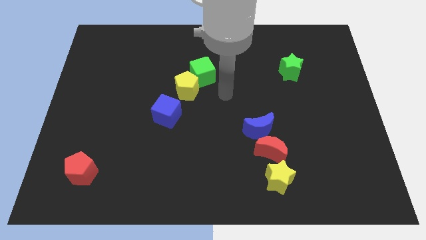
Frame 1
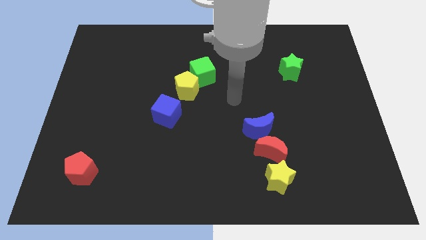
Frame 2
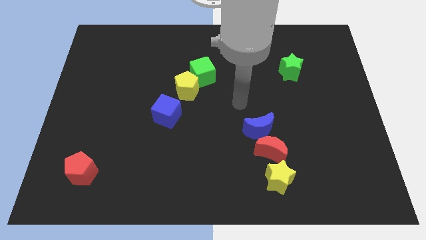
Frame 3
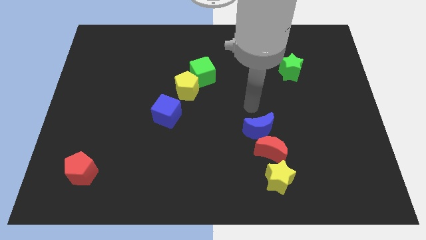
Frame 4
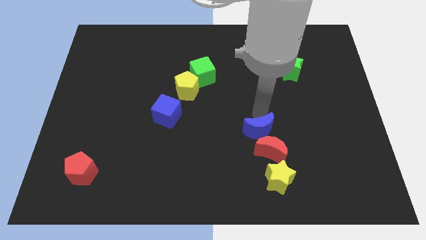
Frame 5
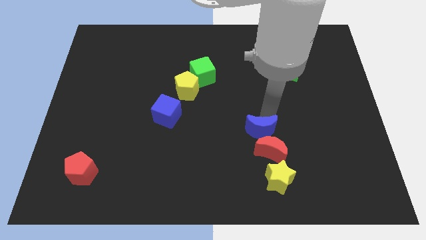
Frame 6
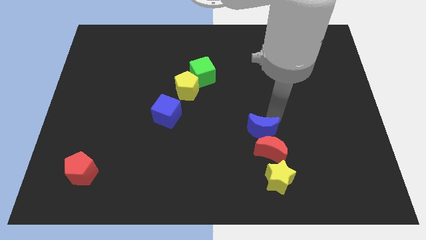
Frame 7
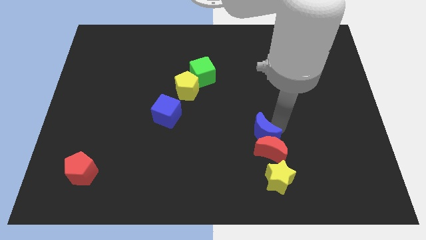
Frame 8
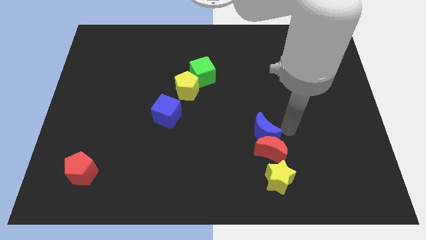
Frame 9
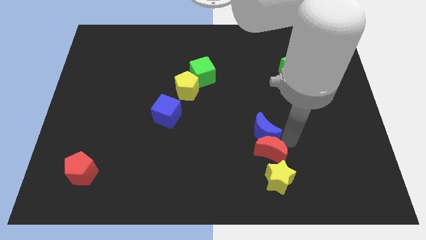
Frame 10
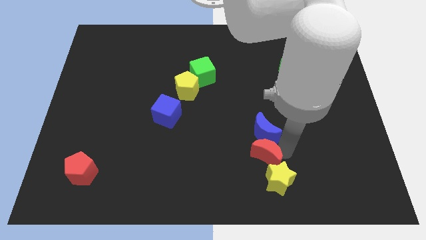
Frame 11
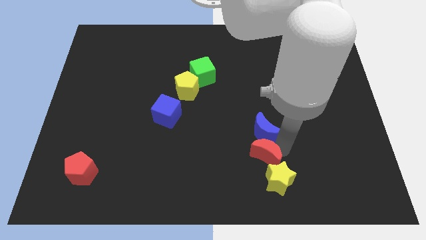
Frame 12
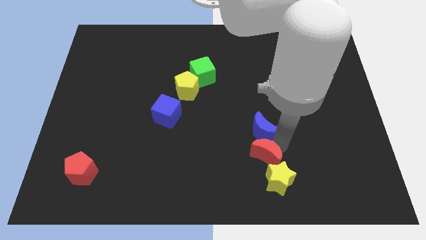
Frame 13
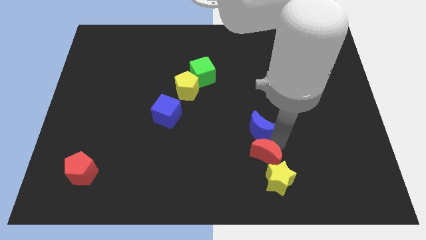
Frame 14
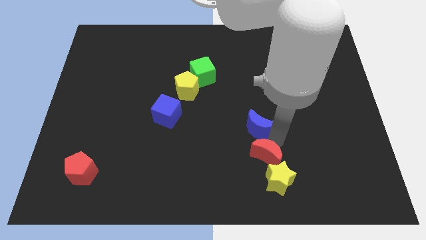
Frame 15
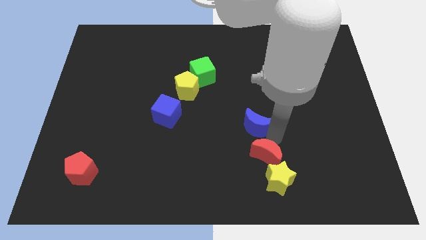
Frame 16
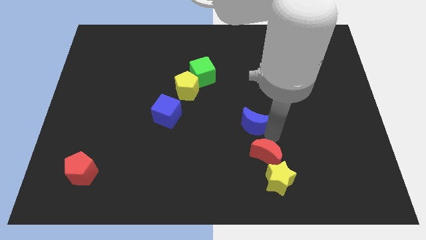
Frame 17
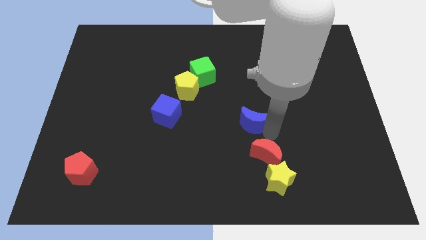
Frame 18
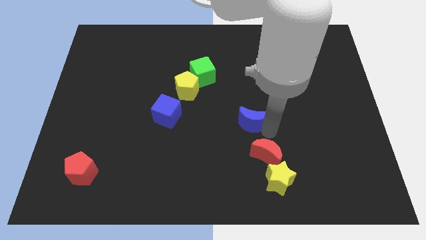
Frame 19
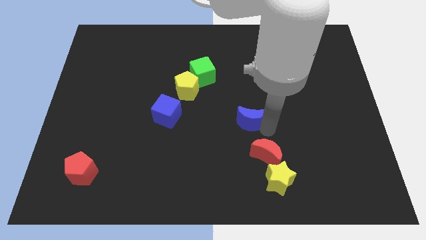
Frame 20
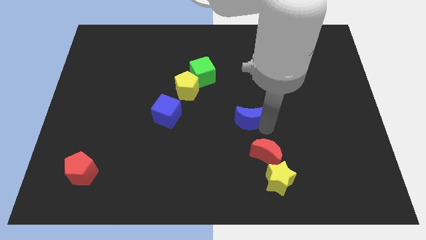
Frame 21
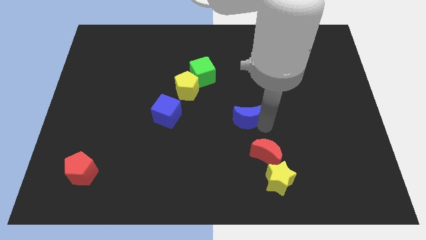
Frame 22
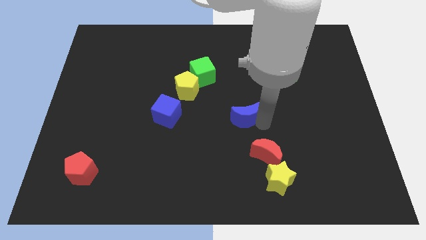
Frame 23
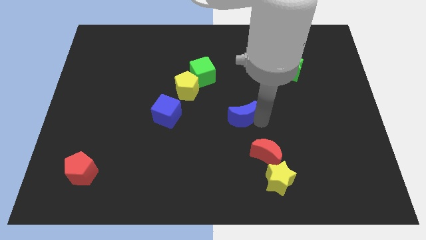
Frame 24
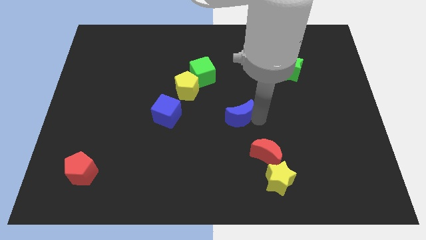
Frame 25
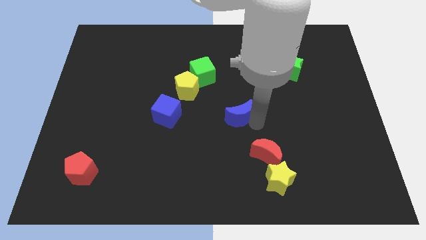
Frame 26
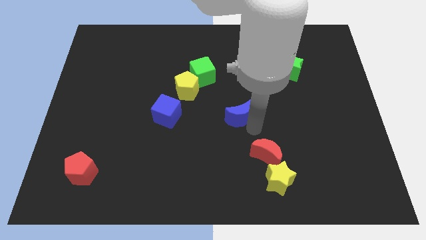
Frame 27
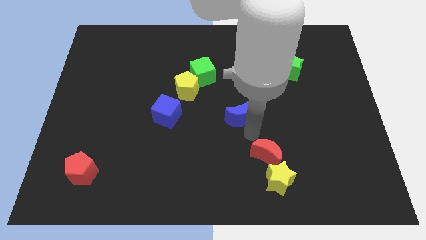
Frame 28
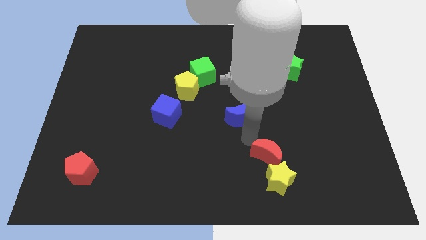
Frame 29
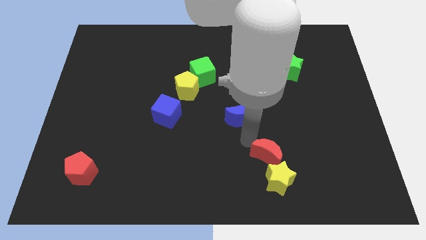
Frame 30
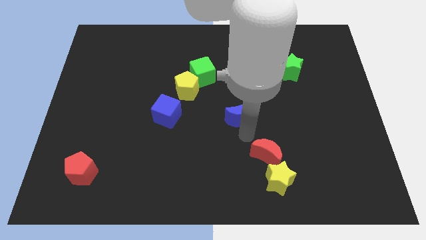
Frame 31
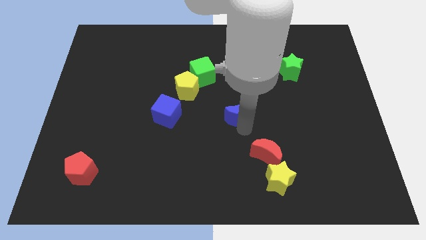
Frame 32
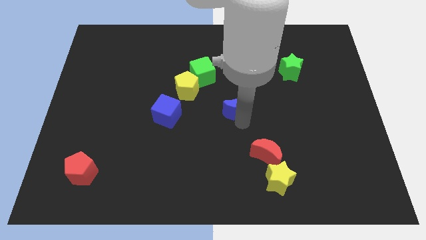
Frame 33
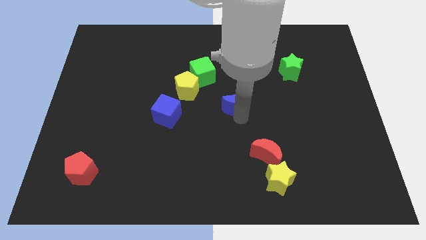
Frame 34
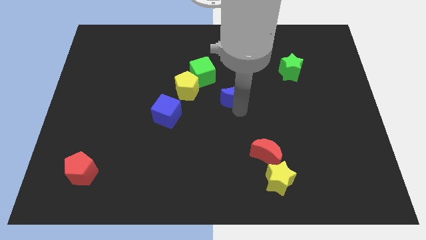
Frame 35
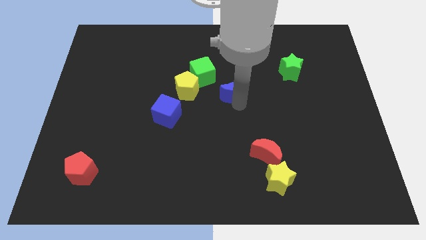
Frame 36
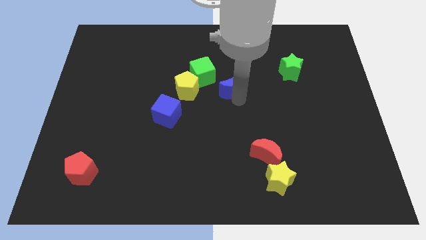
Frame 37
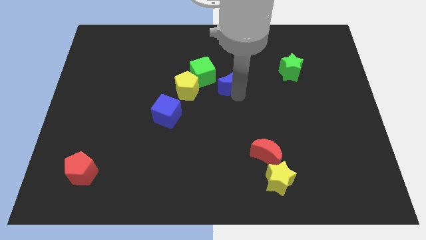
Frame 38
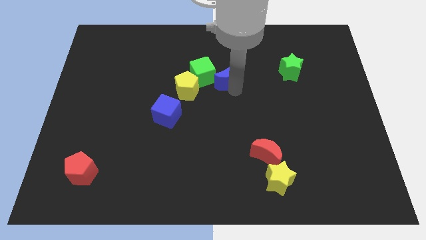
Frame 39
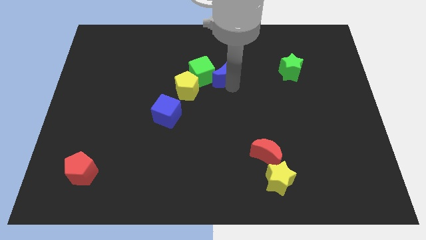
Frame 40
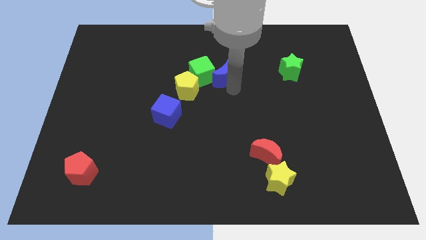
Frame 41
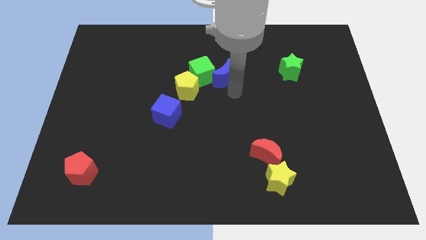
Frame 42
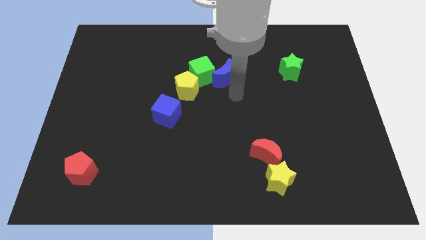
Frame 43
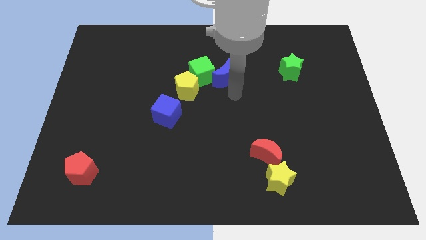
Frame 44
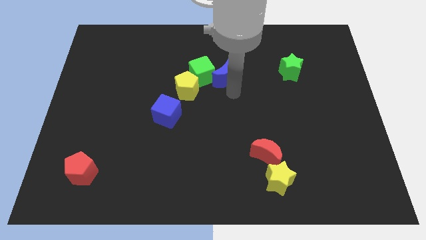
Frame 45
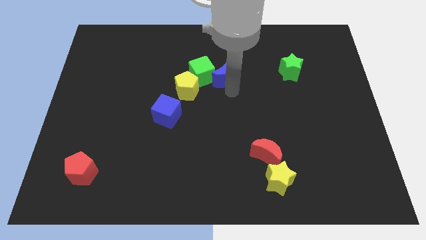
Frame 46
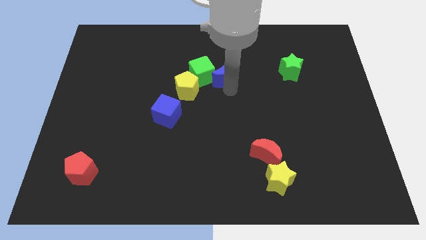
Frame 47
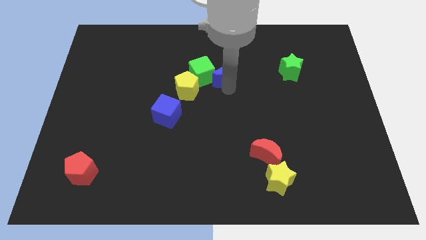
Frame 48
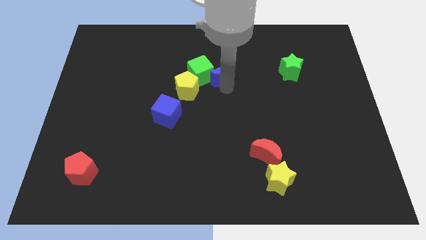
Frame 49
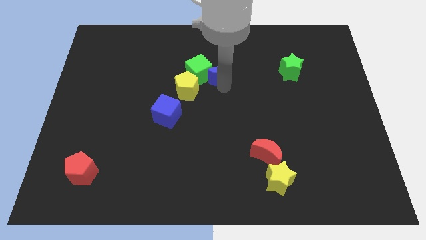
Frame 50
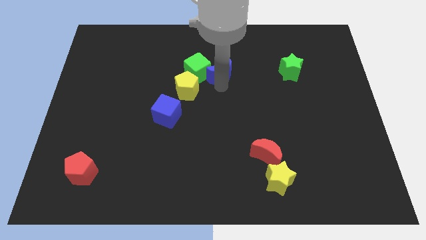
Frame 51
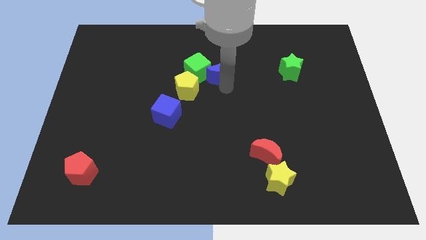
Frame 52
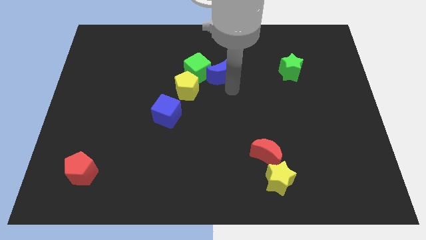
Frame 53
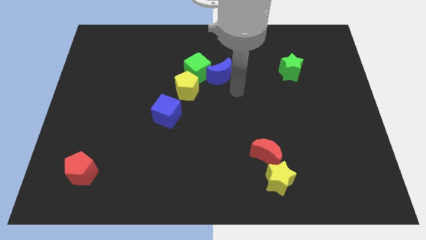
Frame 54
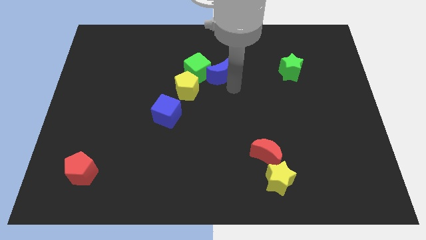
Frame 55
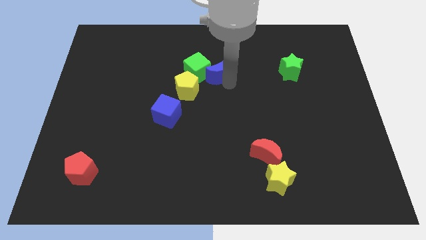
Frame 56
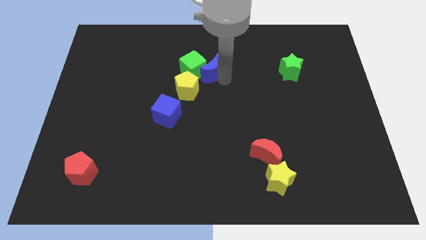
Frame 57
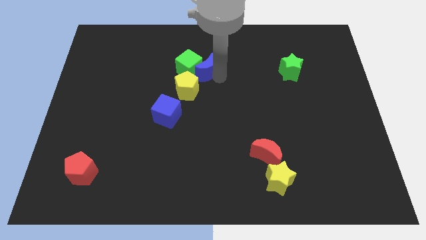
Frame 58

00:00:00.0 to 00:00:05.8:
move the blue moon diagonally up and left

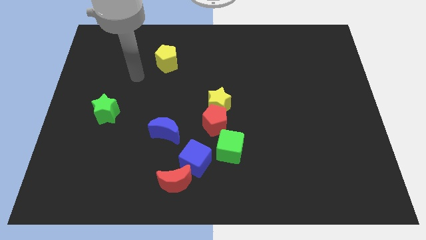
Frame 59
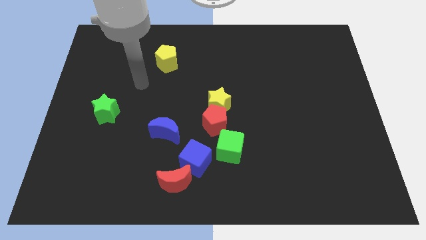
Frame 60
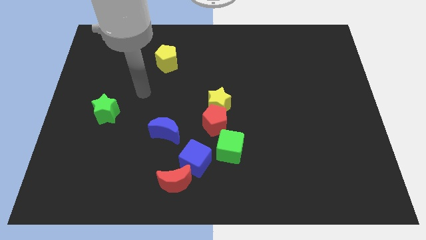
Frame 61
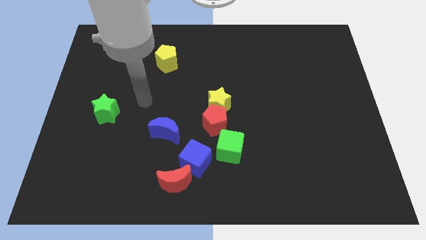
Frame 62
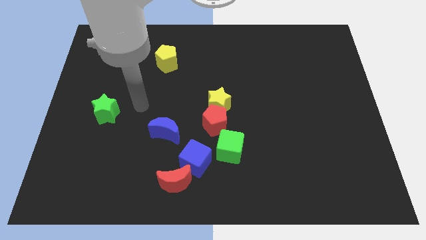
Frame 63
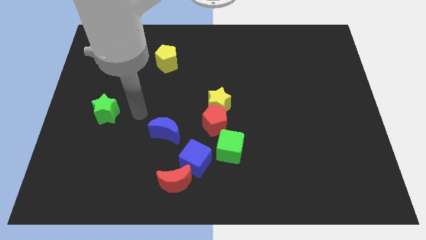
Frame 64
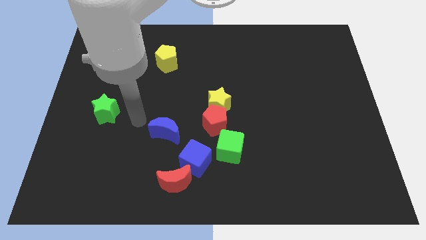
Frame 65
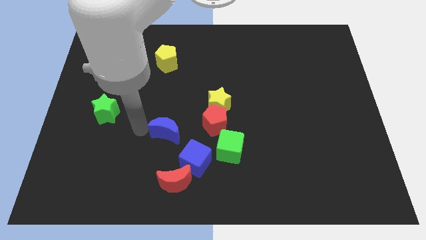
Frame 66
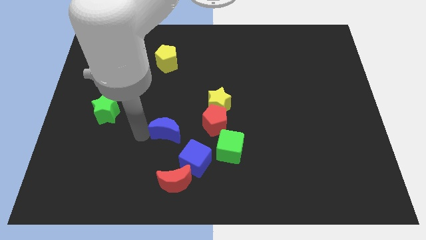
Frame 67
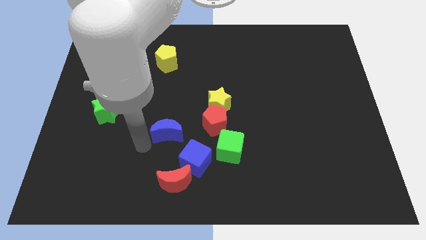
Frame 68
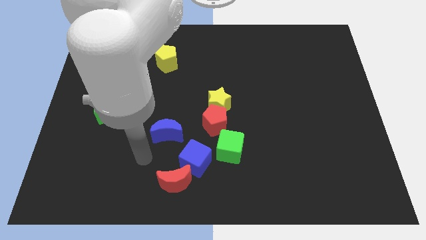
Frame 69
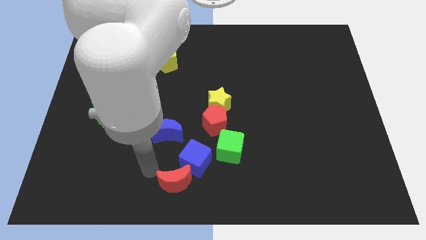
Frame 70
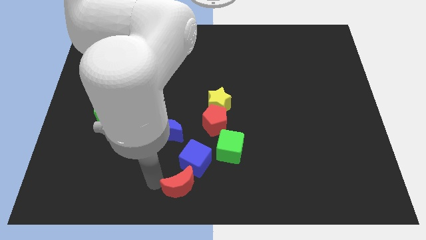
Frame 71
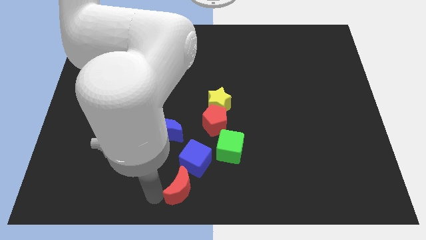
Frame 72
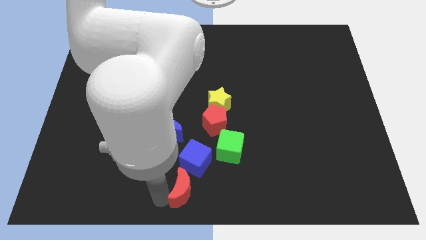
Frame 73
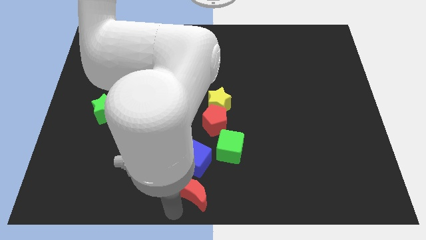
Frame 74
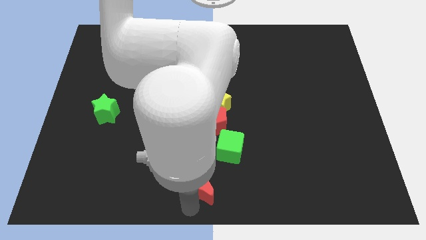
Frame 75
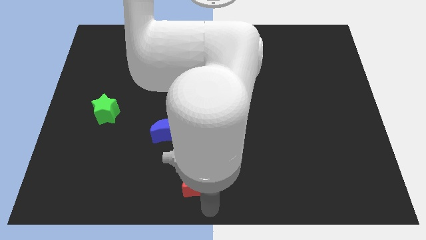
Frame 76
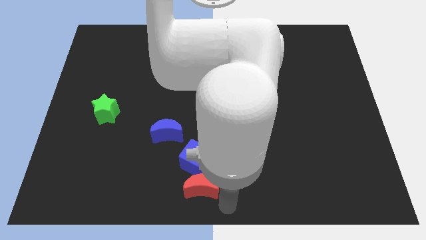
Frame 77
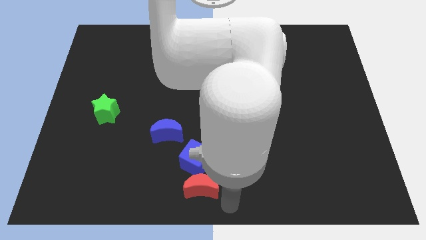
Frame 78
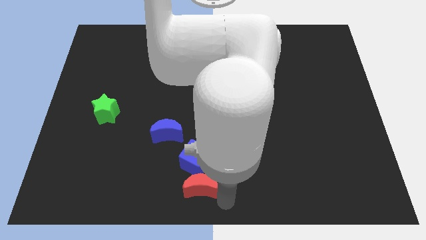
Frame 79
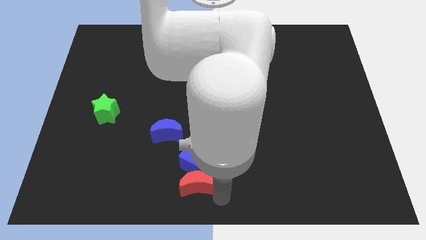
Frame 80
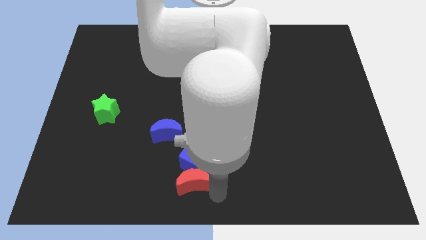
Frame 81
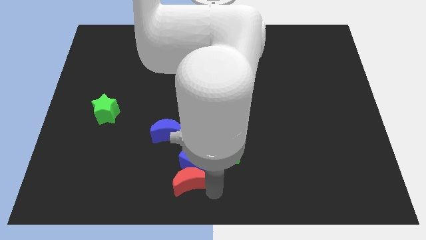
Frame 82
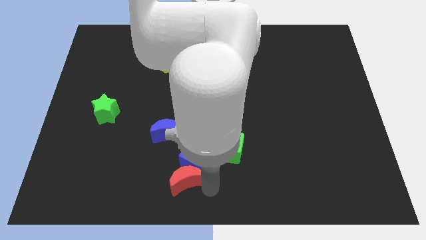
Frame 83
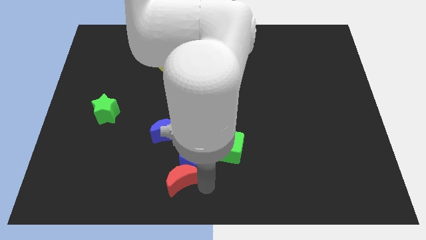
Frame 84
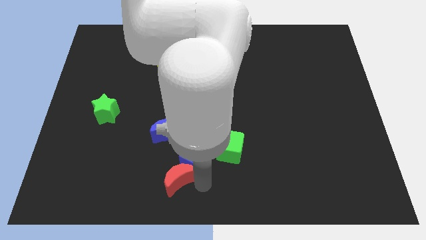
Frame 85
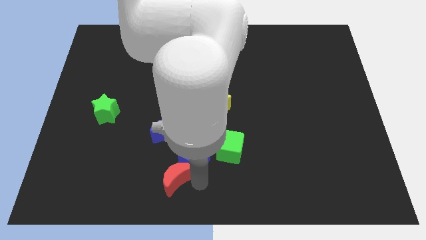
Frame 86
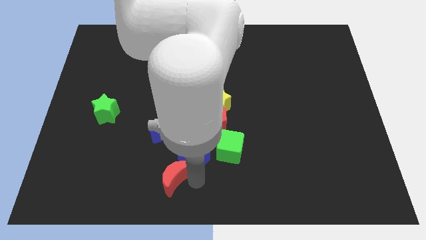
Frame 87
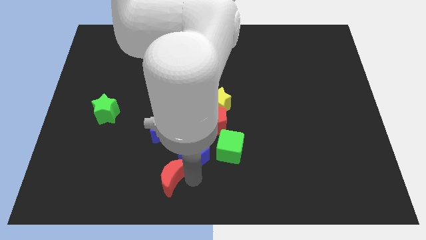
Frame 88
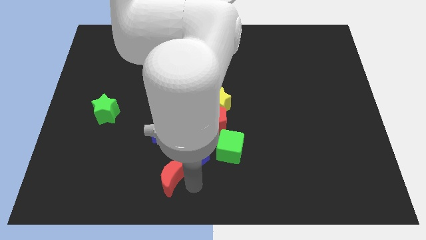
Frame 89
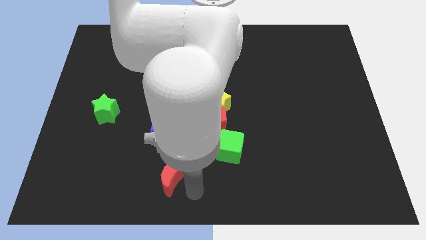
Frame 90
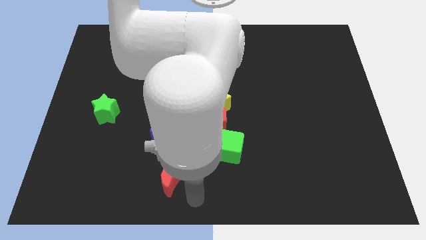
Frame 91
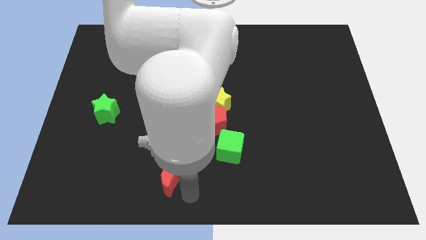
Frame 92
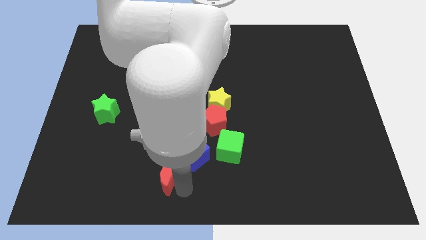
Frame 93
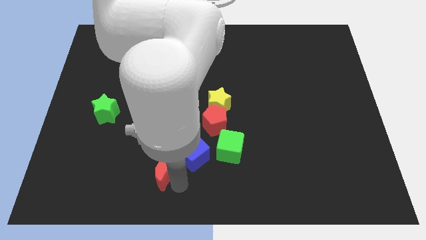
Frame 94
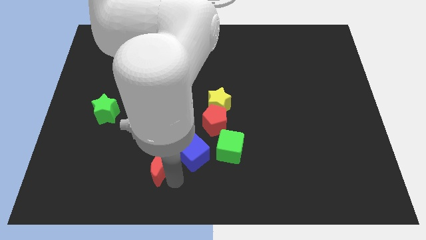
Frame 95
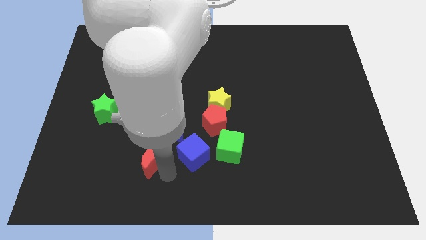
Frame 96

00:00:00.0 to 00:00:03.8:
move the red moon up and then to the left somewhat
